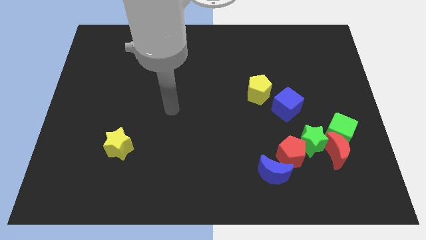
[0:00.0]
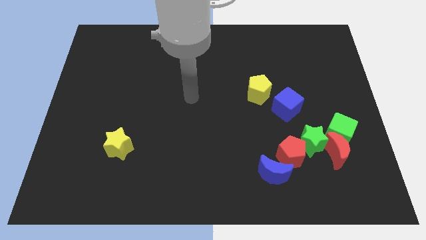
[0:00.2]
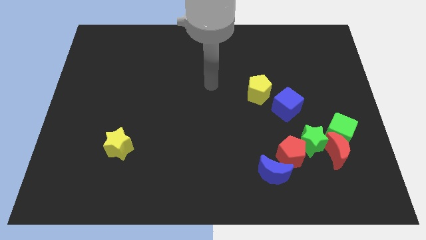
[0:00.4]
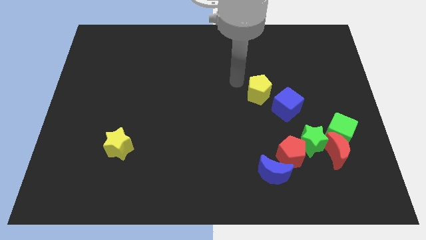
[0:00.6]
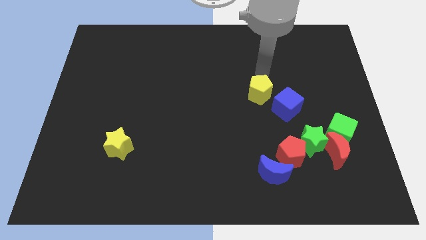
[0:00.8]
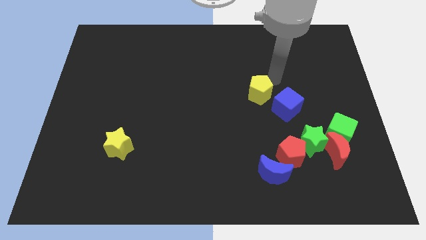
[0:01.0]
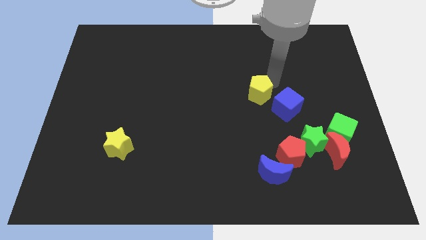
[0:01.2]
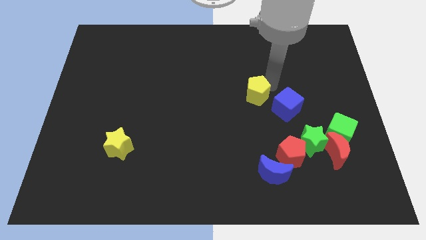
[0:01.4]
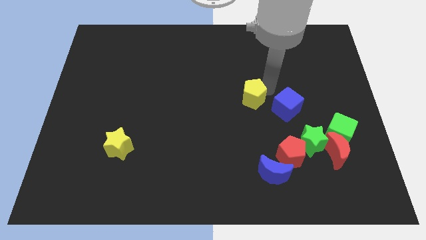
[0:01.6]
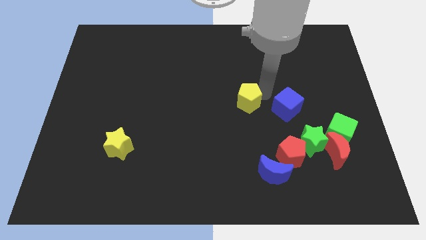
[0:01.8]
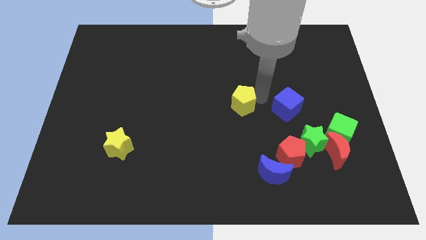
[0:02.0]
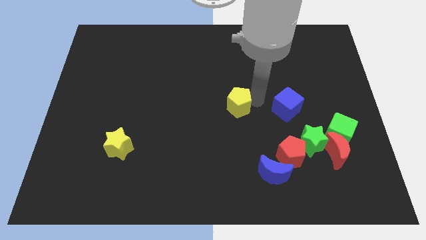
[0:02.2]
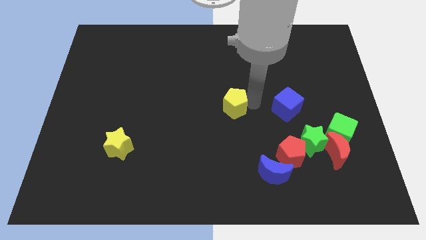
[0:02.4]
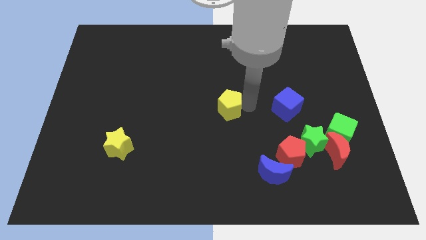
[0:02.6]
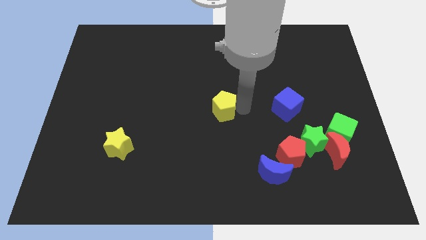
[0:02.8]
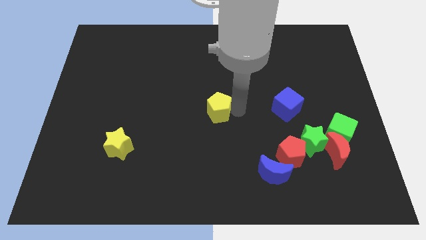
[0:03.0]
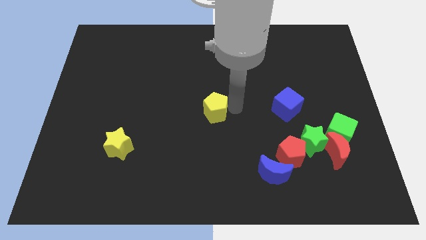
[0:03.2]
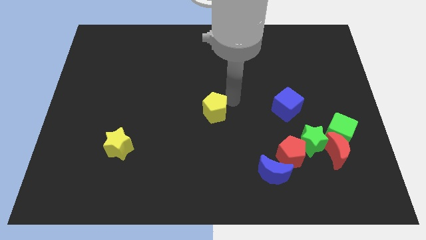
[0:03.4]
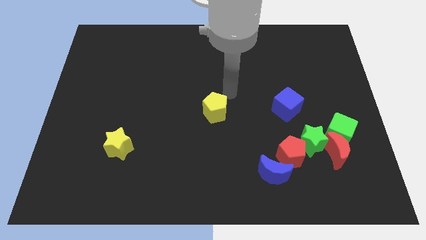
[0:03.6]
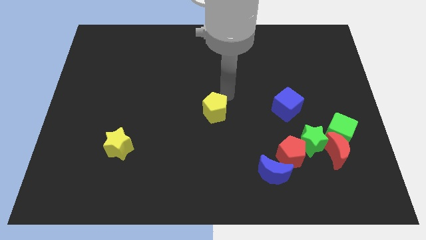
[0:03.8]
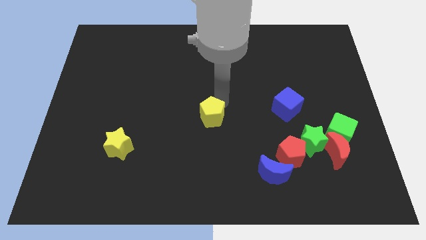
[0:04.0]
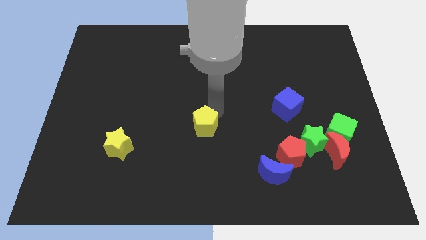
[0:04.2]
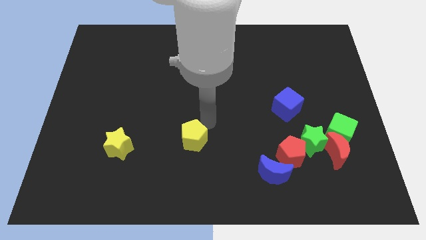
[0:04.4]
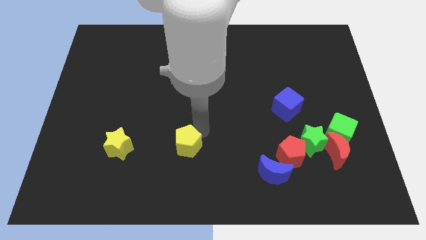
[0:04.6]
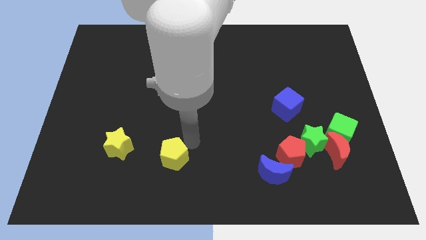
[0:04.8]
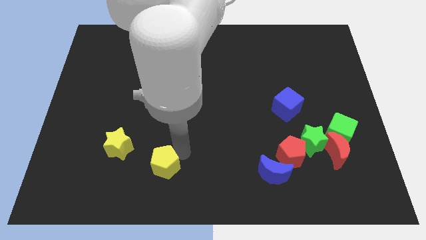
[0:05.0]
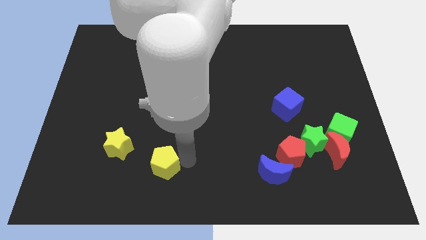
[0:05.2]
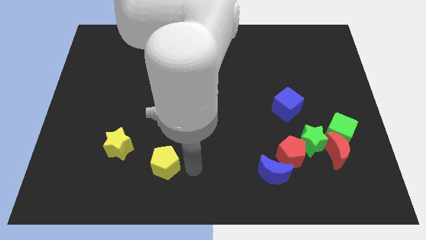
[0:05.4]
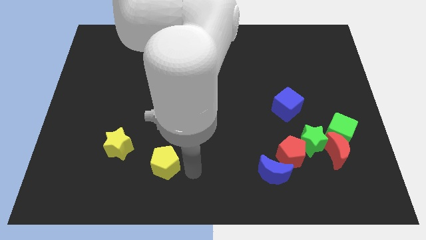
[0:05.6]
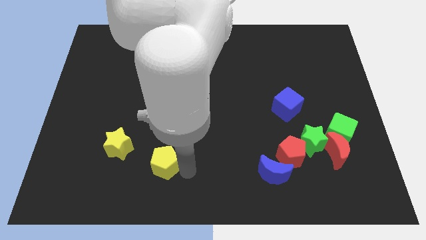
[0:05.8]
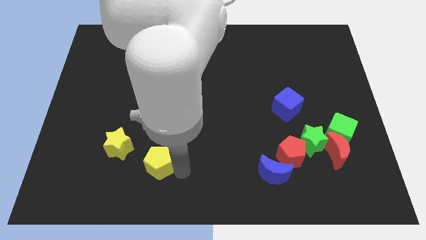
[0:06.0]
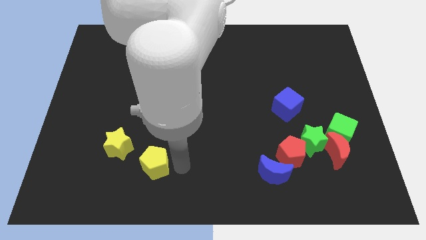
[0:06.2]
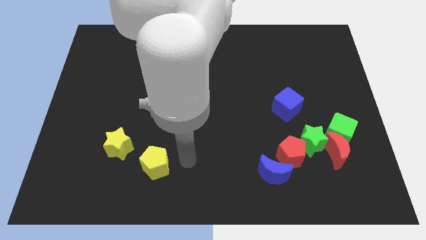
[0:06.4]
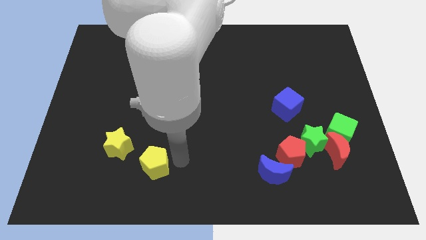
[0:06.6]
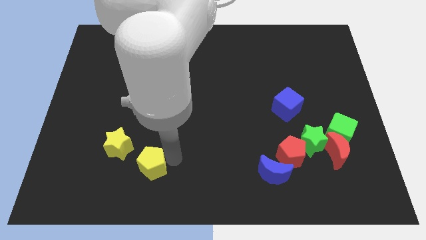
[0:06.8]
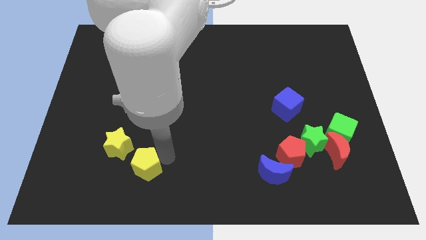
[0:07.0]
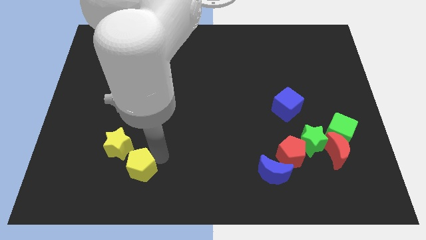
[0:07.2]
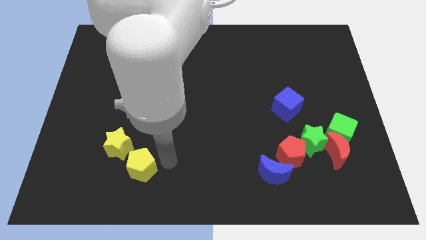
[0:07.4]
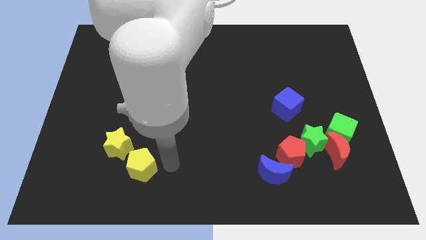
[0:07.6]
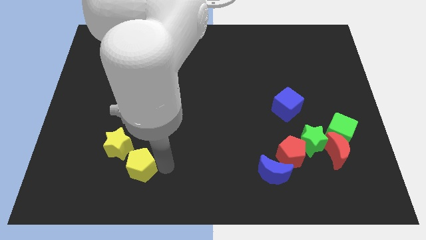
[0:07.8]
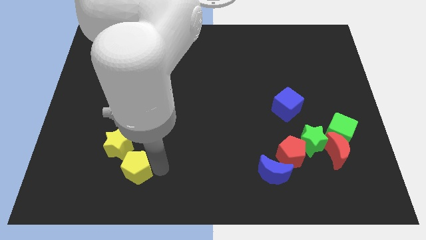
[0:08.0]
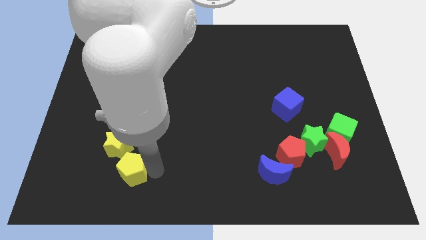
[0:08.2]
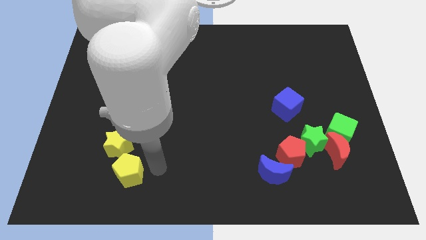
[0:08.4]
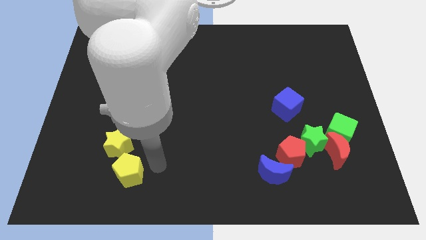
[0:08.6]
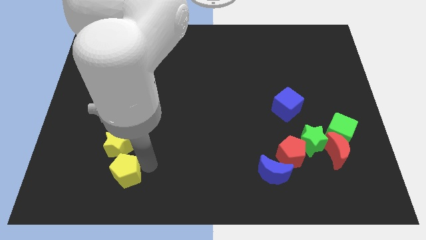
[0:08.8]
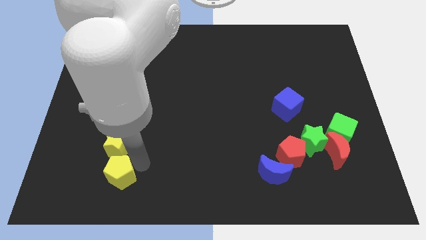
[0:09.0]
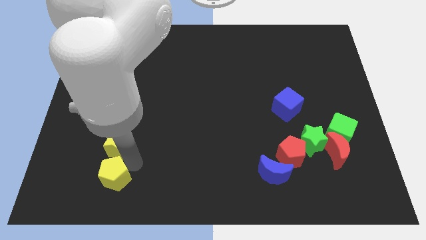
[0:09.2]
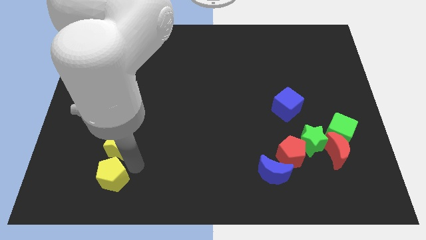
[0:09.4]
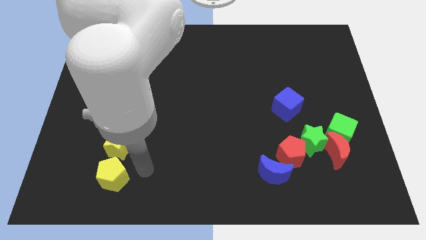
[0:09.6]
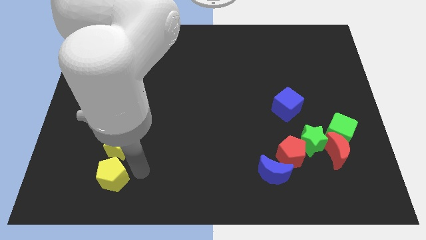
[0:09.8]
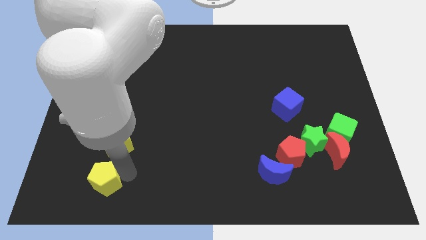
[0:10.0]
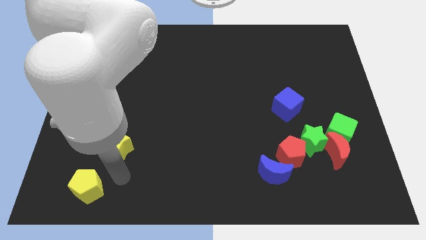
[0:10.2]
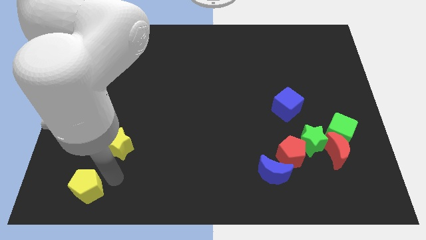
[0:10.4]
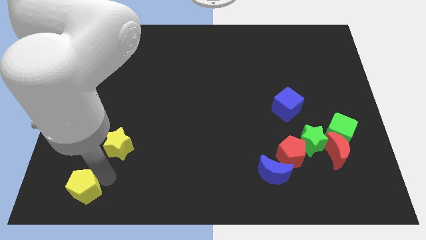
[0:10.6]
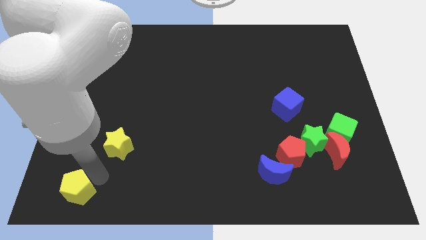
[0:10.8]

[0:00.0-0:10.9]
push the yellow pentagon to the lower left corner

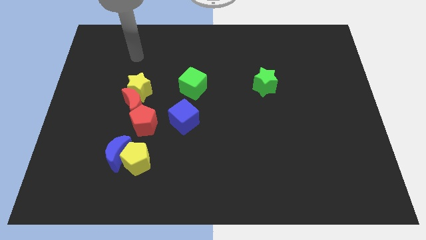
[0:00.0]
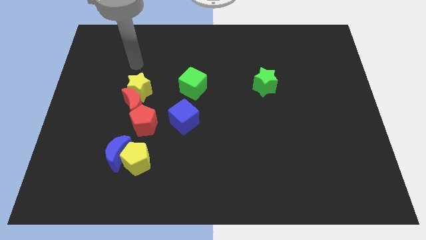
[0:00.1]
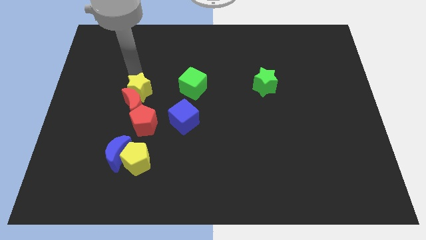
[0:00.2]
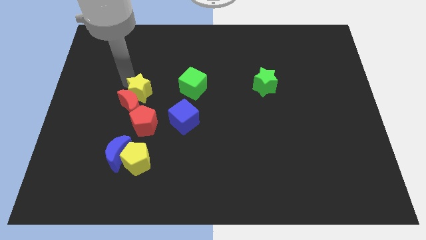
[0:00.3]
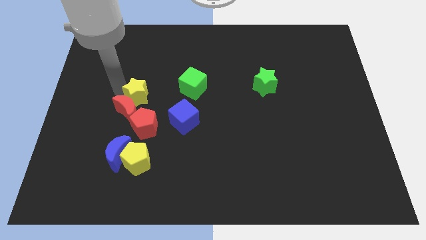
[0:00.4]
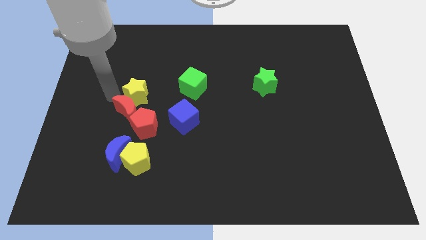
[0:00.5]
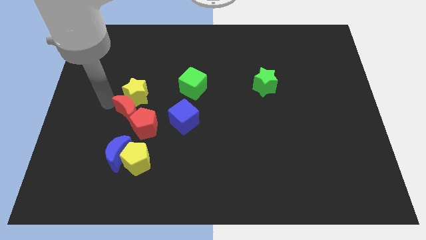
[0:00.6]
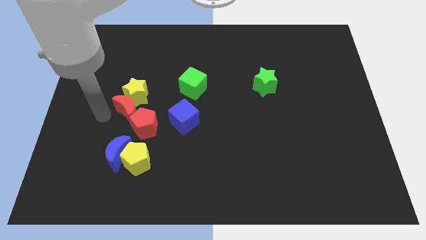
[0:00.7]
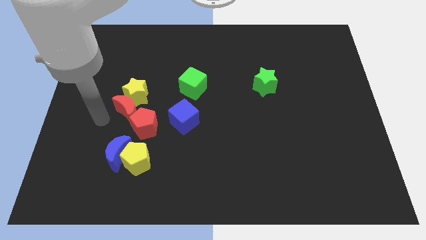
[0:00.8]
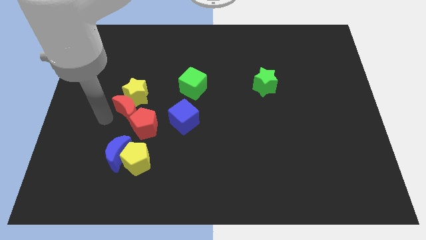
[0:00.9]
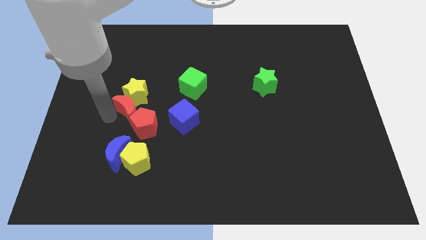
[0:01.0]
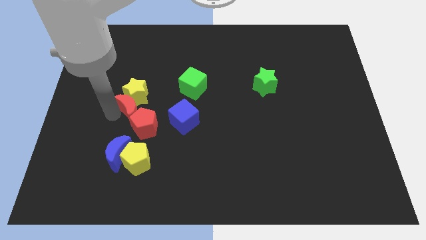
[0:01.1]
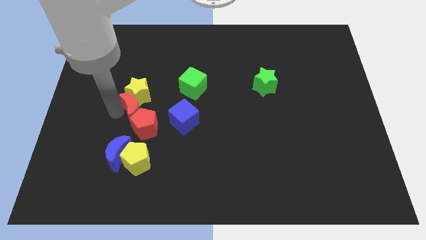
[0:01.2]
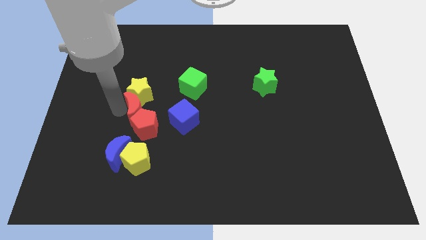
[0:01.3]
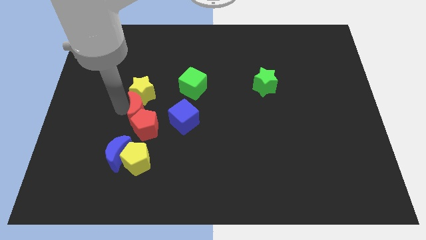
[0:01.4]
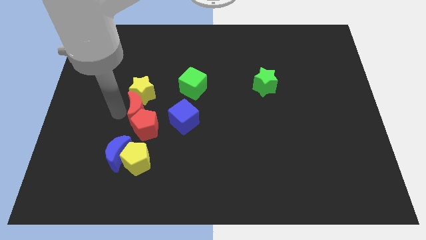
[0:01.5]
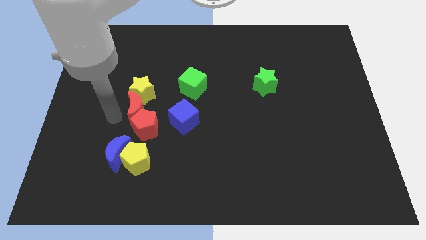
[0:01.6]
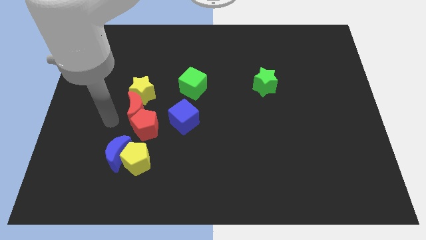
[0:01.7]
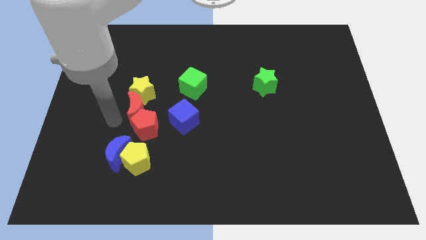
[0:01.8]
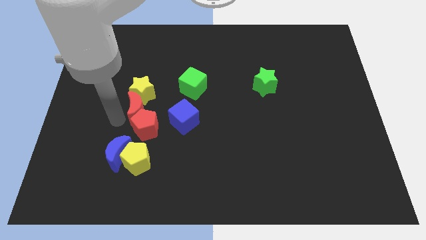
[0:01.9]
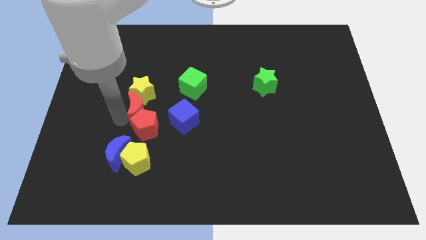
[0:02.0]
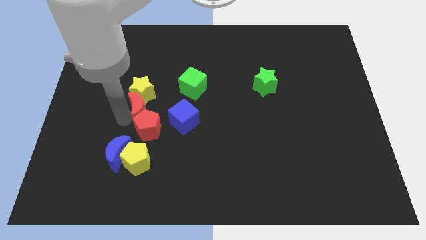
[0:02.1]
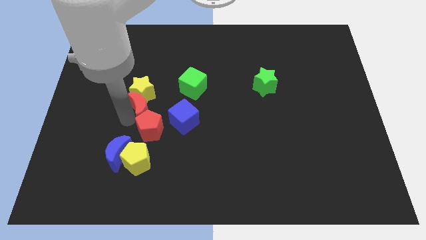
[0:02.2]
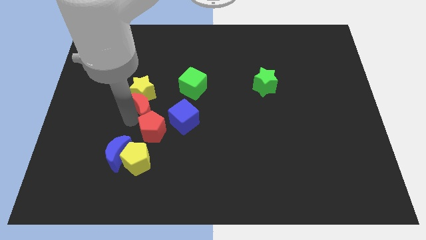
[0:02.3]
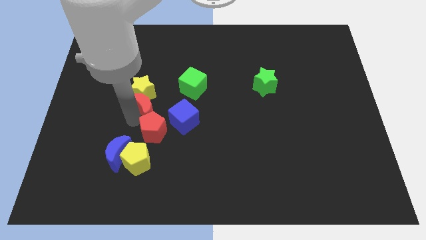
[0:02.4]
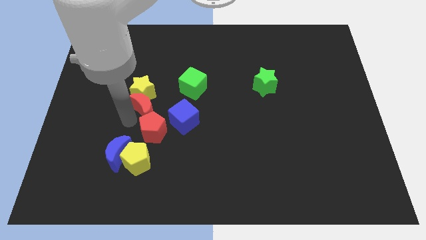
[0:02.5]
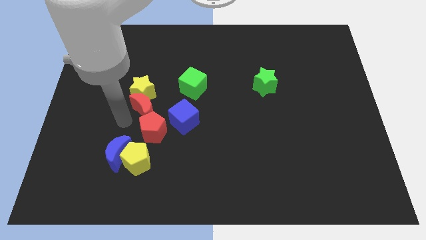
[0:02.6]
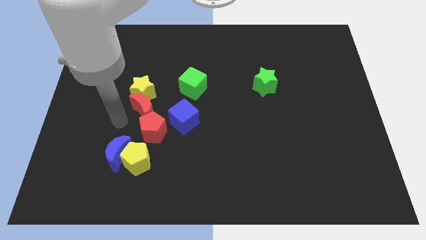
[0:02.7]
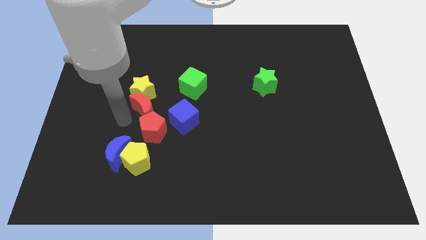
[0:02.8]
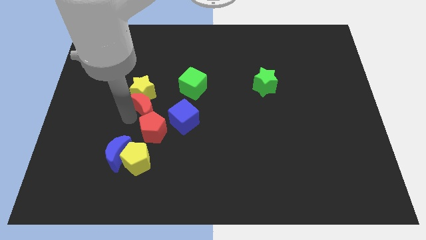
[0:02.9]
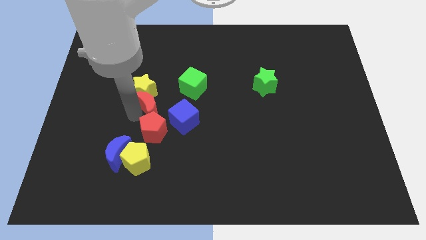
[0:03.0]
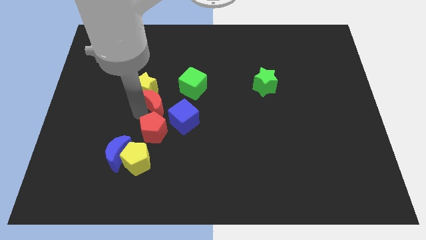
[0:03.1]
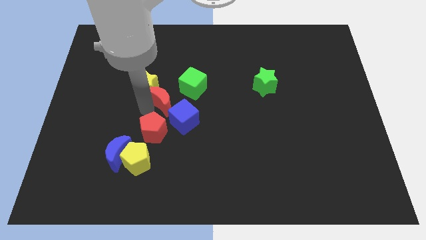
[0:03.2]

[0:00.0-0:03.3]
slide the red moon to the center
